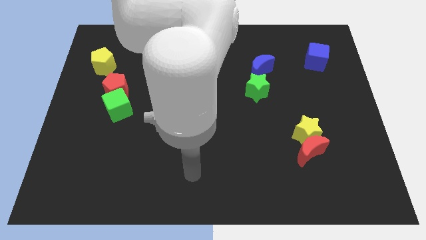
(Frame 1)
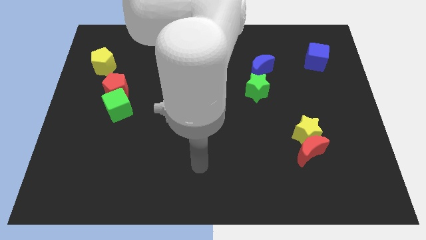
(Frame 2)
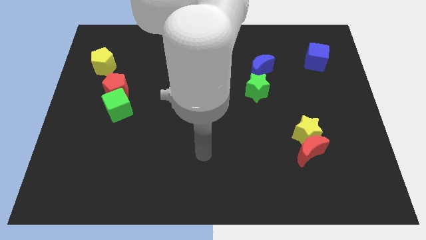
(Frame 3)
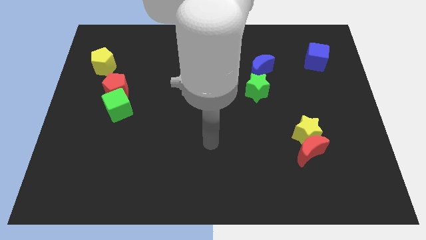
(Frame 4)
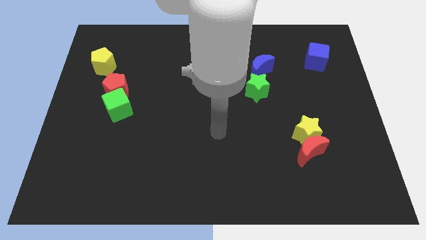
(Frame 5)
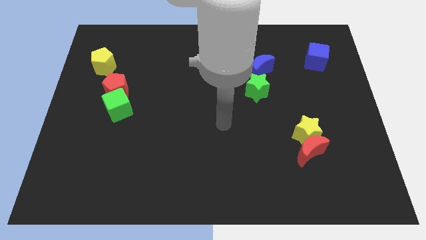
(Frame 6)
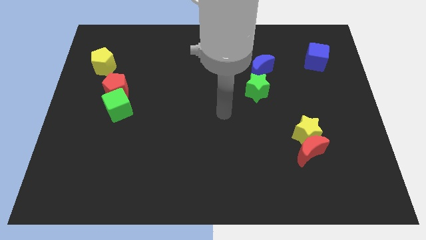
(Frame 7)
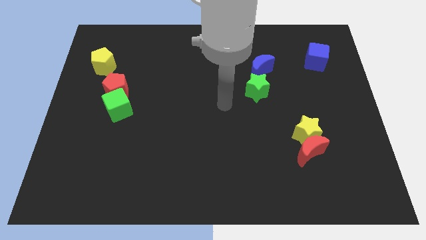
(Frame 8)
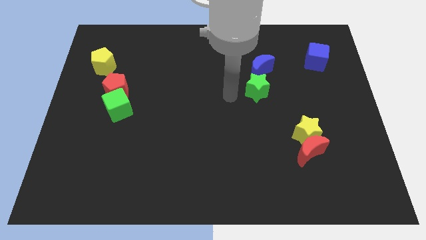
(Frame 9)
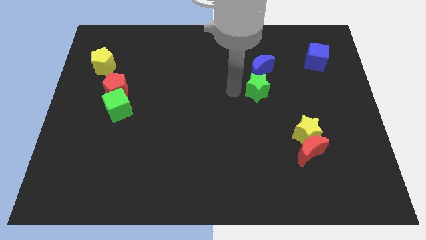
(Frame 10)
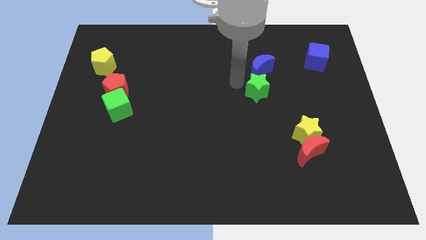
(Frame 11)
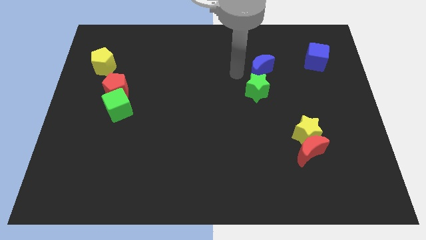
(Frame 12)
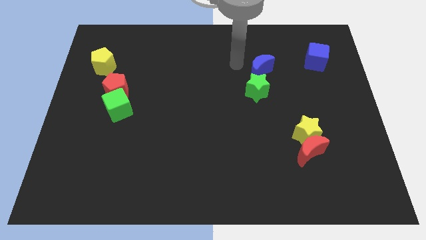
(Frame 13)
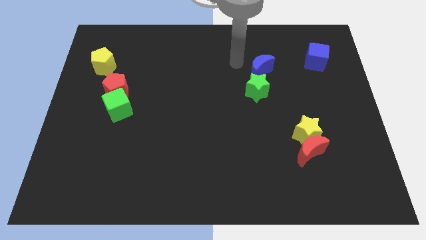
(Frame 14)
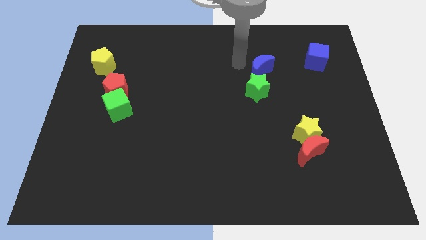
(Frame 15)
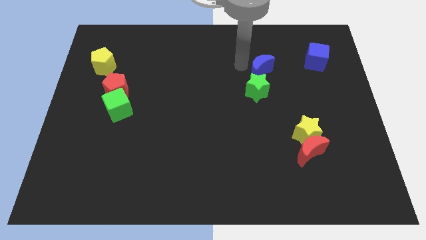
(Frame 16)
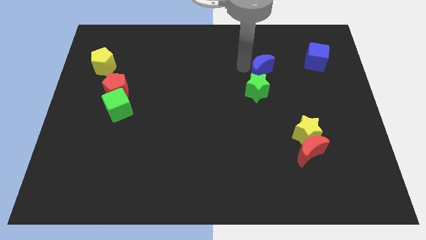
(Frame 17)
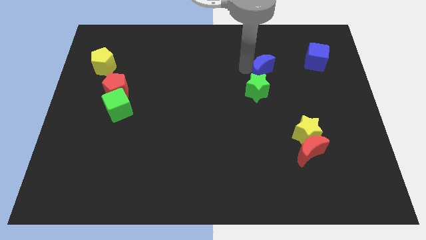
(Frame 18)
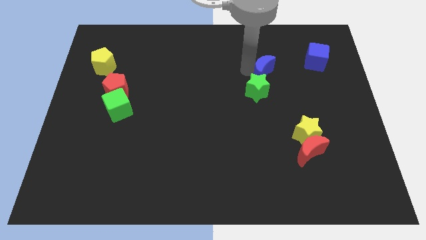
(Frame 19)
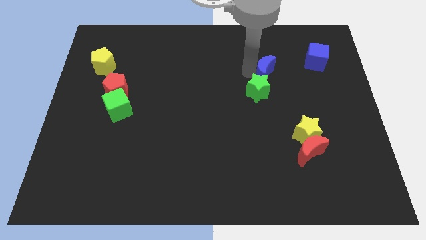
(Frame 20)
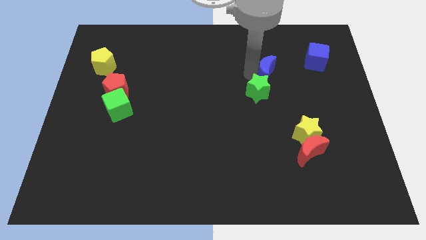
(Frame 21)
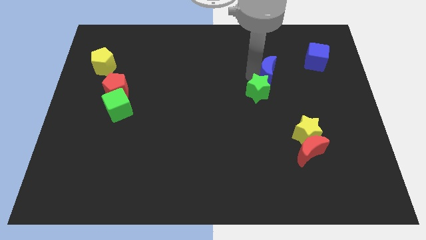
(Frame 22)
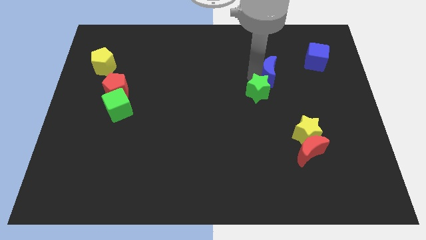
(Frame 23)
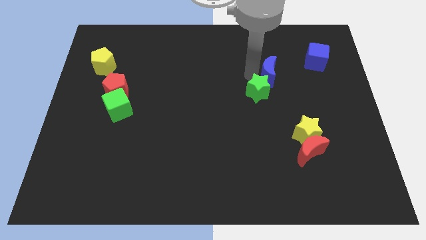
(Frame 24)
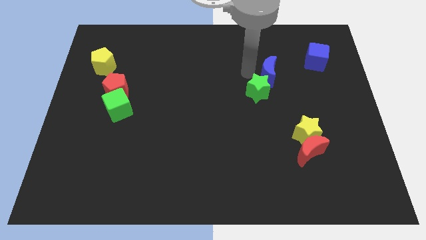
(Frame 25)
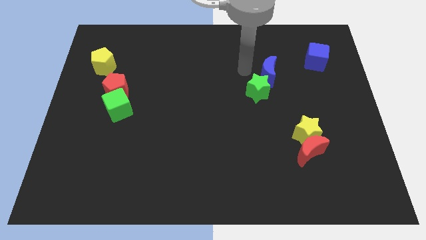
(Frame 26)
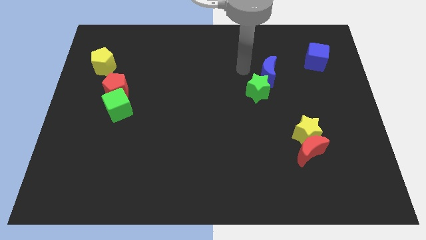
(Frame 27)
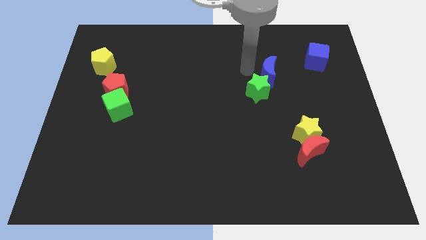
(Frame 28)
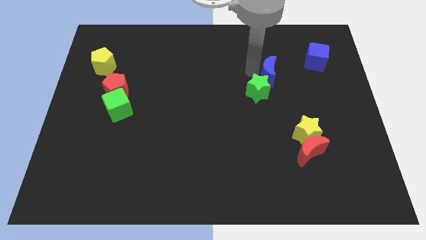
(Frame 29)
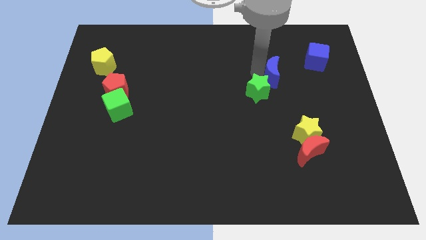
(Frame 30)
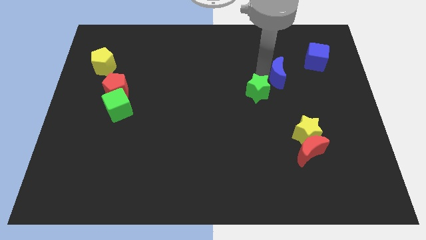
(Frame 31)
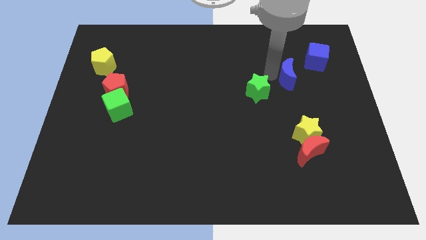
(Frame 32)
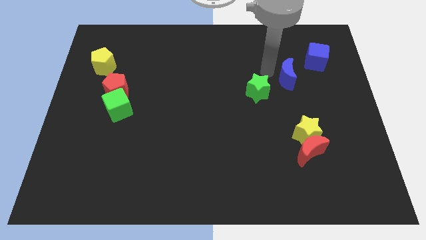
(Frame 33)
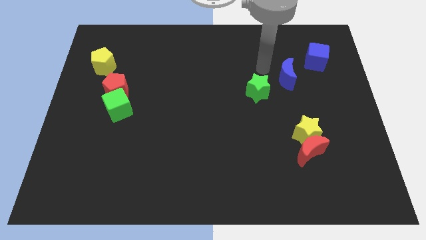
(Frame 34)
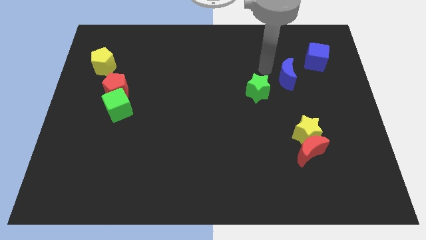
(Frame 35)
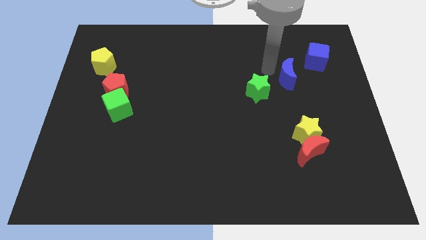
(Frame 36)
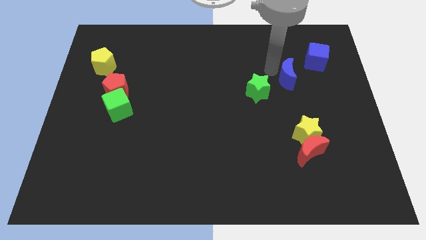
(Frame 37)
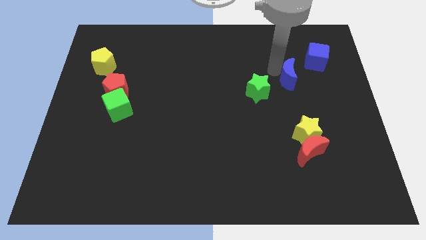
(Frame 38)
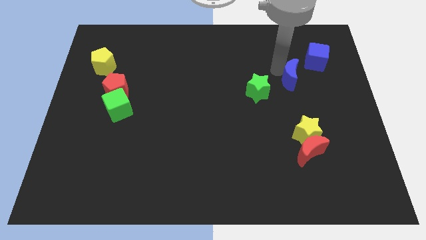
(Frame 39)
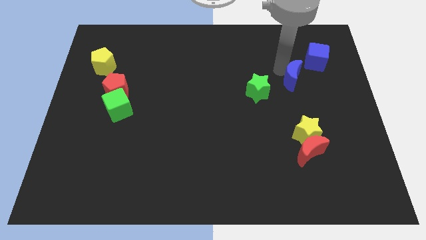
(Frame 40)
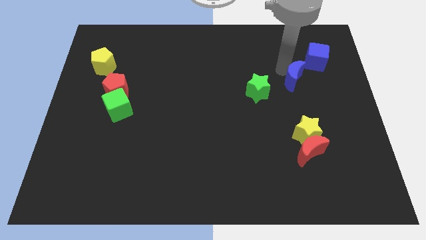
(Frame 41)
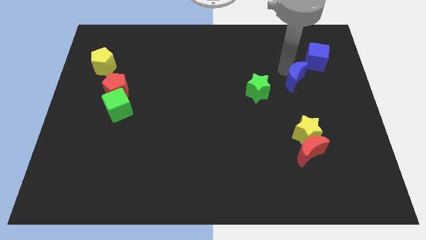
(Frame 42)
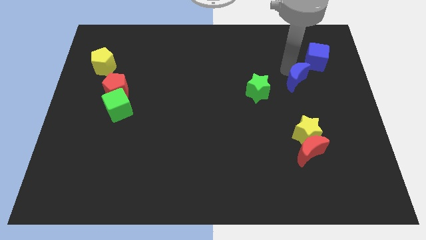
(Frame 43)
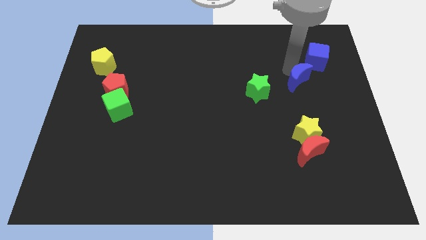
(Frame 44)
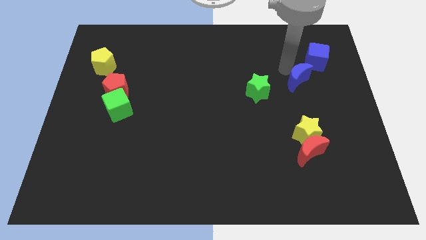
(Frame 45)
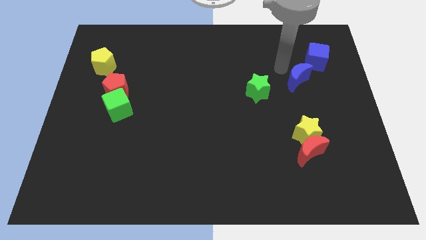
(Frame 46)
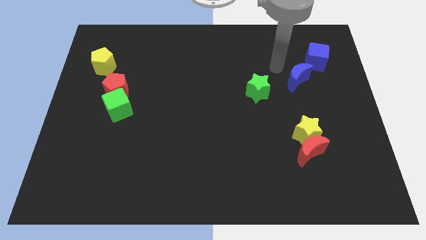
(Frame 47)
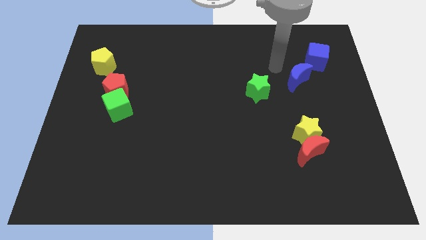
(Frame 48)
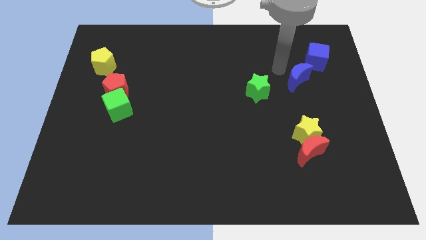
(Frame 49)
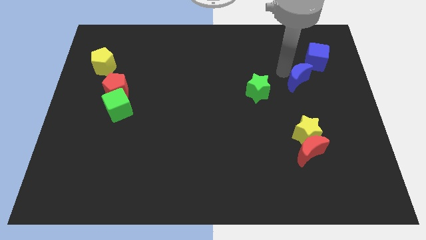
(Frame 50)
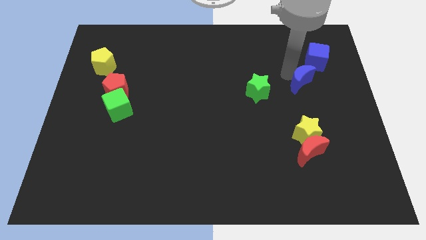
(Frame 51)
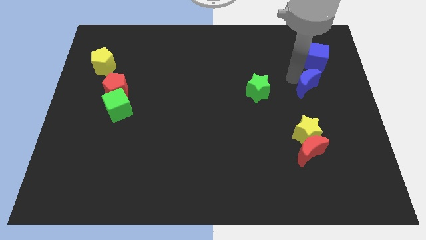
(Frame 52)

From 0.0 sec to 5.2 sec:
put the blue moon below the blue cube

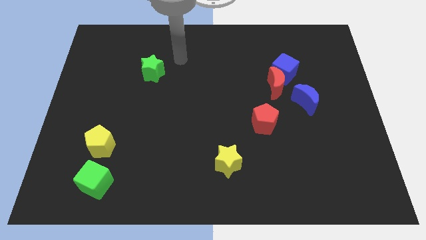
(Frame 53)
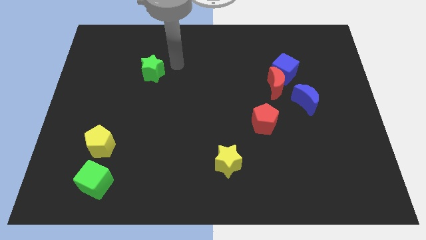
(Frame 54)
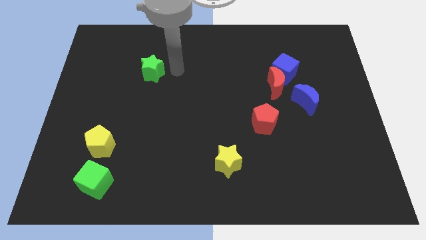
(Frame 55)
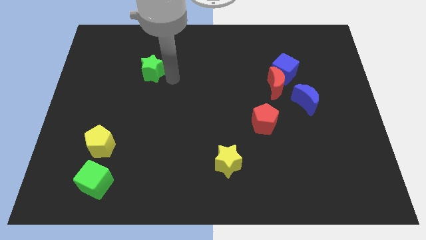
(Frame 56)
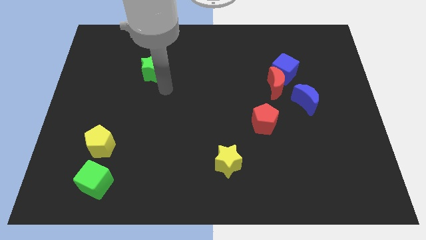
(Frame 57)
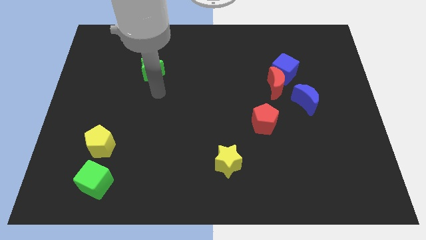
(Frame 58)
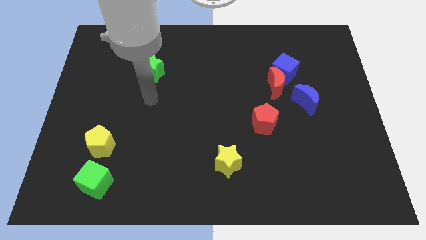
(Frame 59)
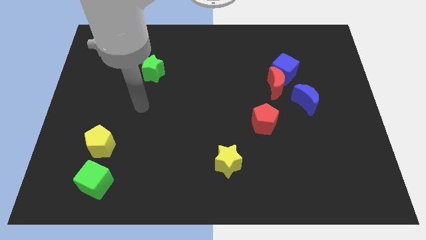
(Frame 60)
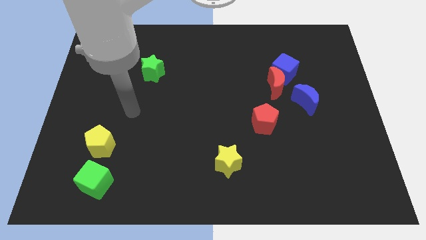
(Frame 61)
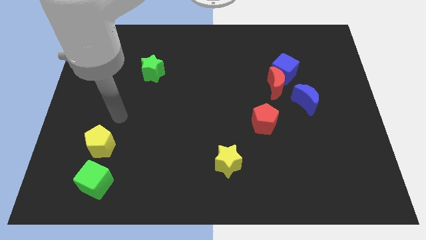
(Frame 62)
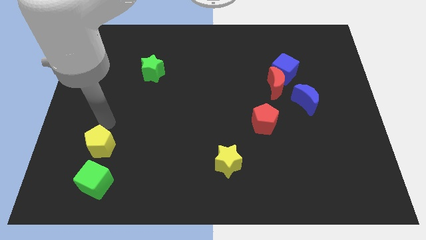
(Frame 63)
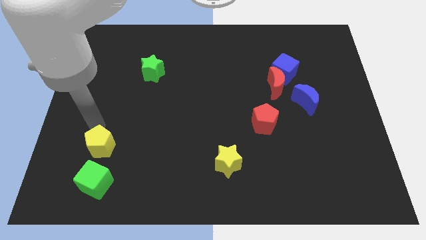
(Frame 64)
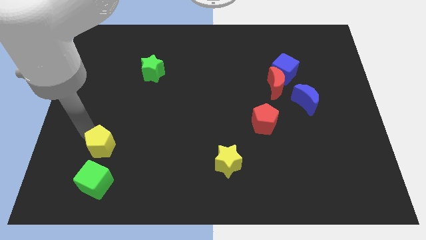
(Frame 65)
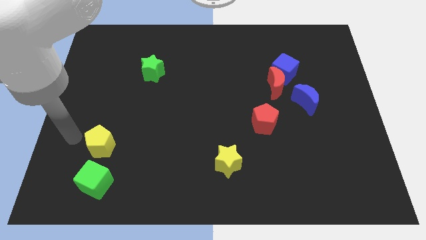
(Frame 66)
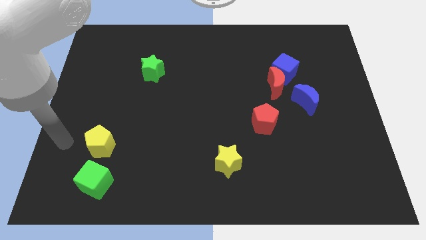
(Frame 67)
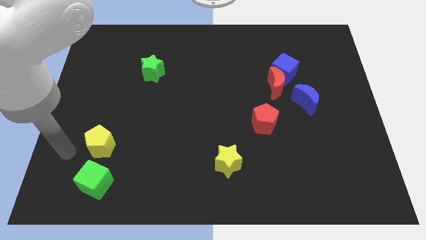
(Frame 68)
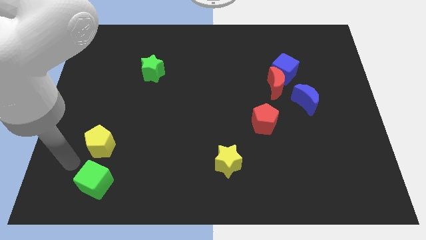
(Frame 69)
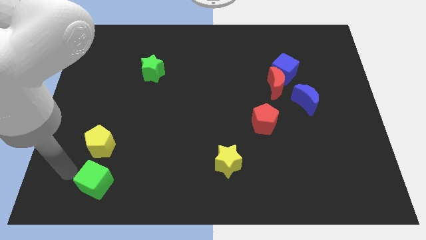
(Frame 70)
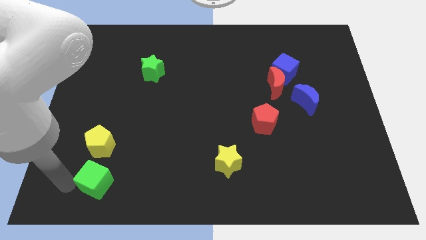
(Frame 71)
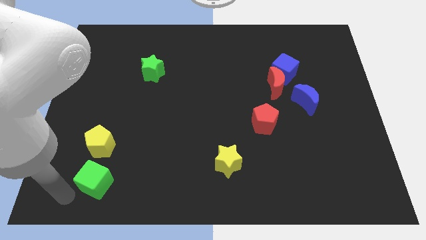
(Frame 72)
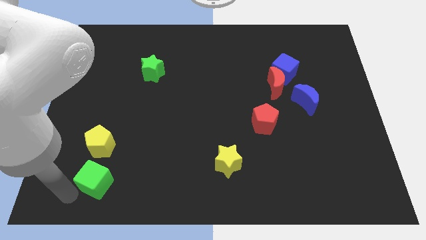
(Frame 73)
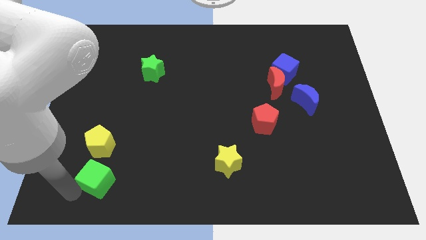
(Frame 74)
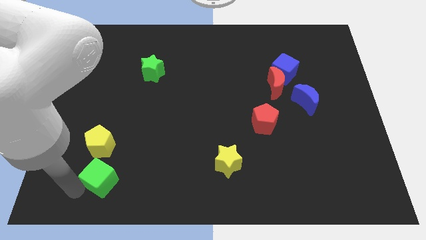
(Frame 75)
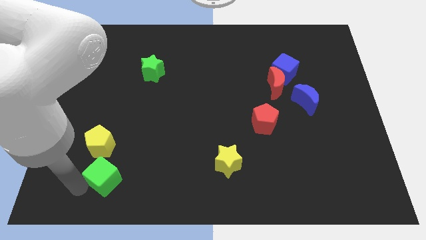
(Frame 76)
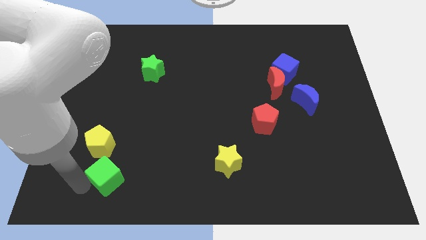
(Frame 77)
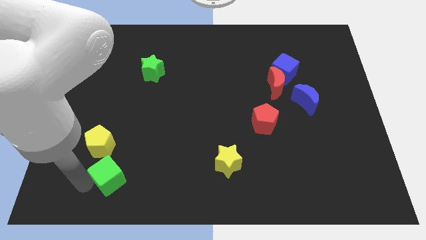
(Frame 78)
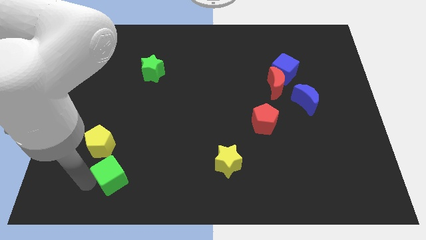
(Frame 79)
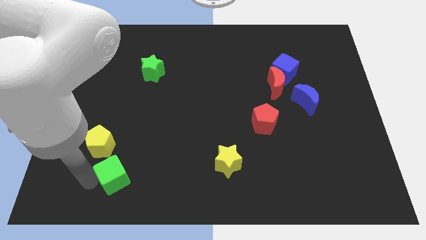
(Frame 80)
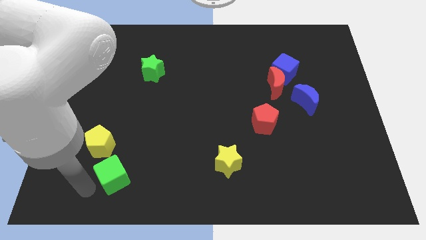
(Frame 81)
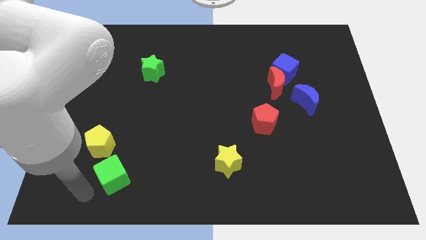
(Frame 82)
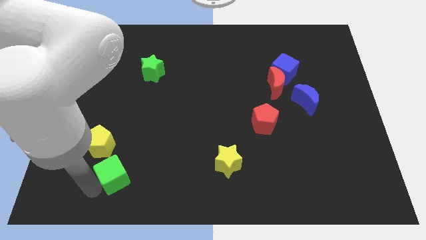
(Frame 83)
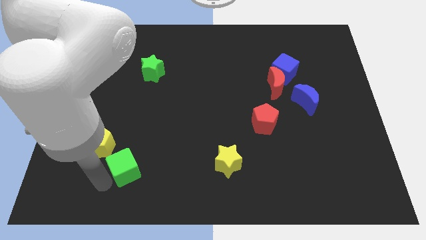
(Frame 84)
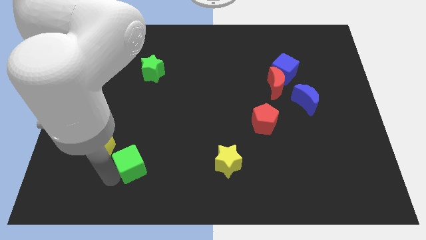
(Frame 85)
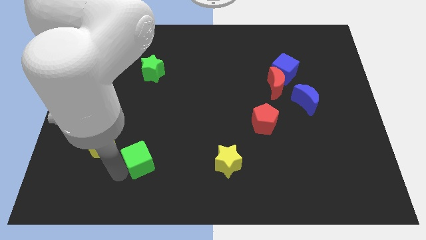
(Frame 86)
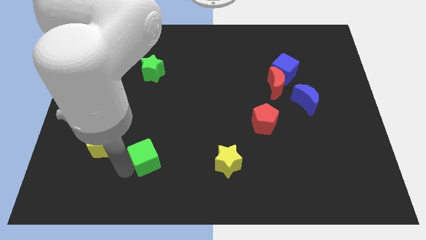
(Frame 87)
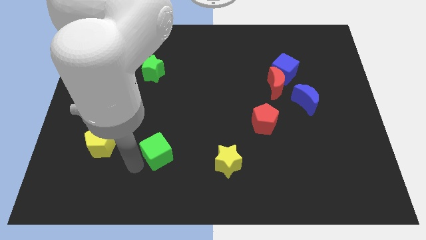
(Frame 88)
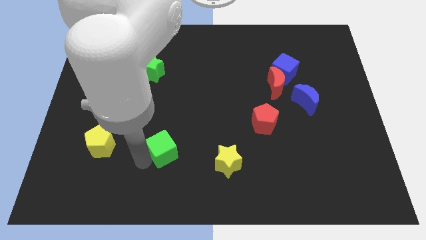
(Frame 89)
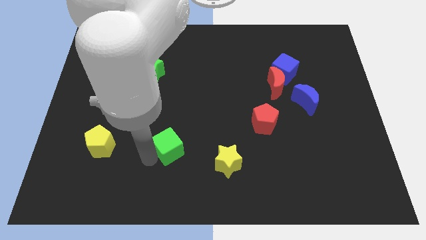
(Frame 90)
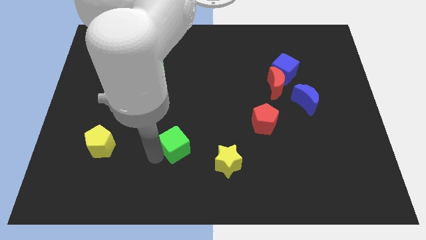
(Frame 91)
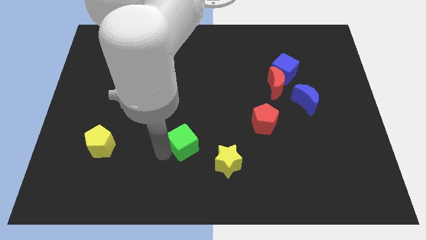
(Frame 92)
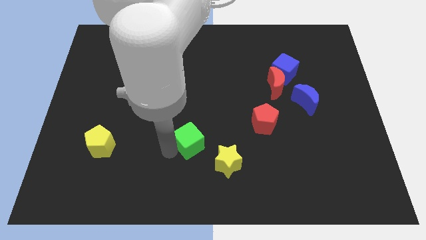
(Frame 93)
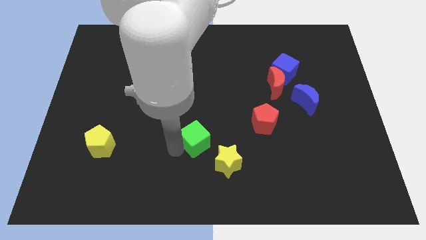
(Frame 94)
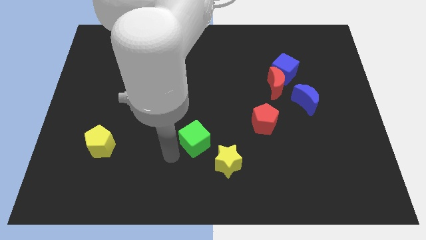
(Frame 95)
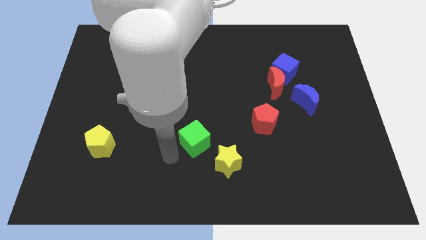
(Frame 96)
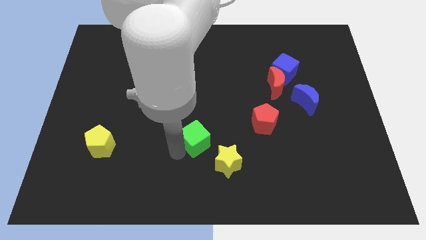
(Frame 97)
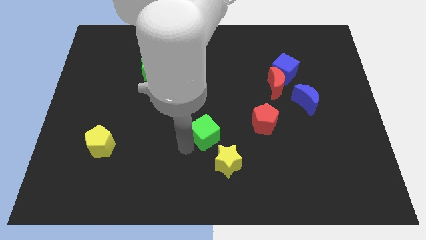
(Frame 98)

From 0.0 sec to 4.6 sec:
move the green cube above the yellow star
